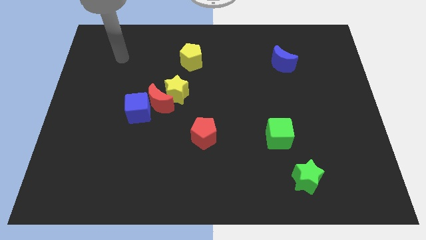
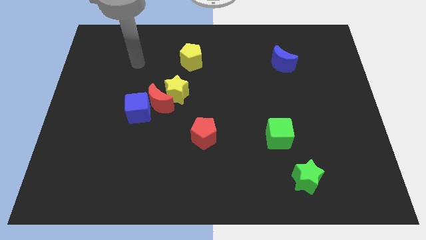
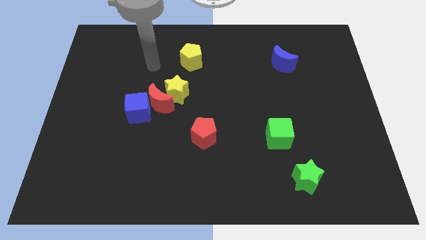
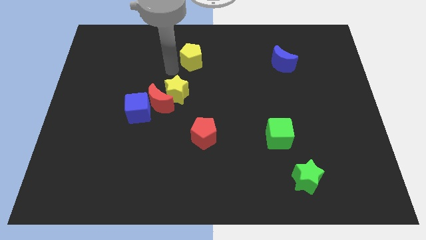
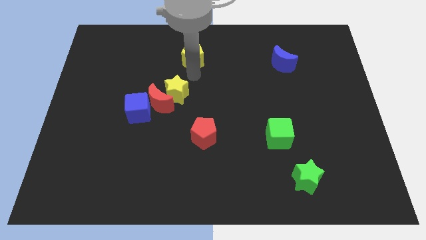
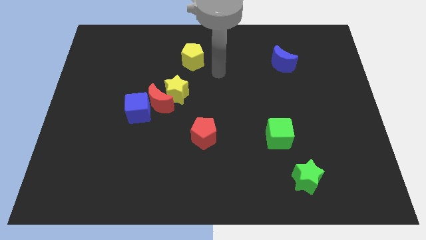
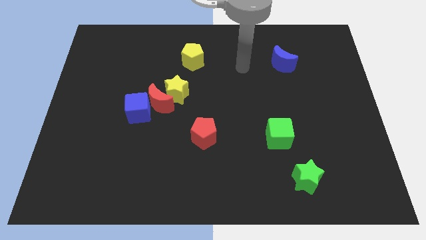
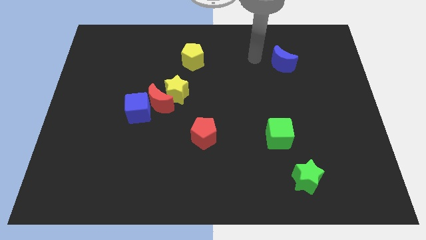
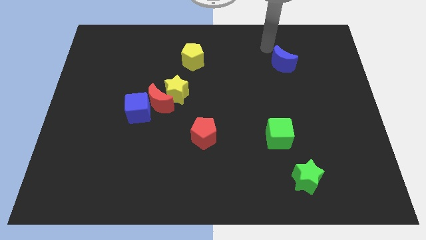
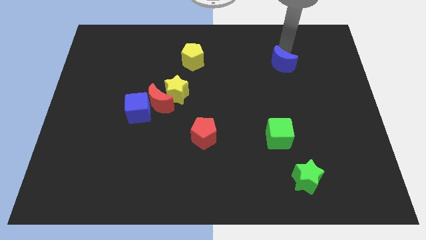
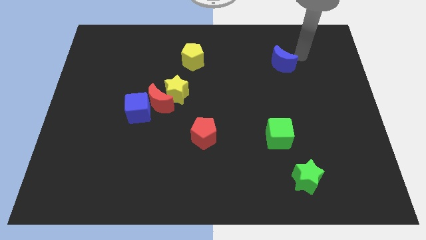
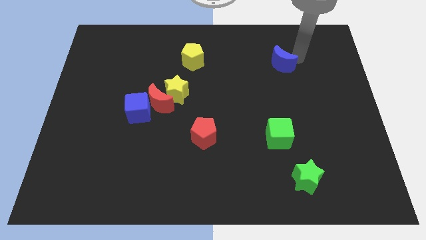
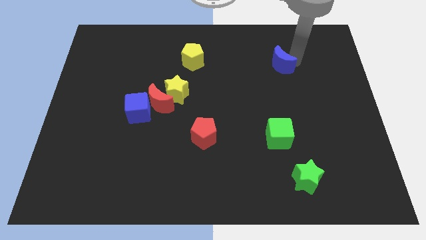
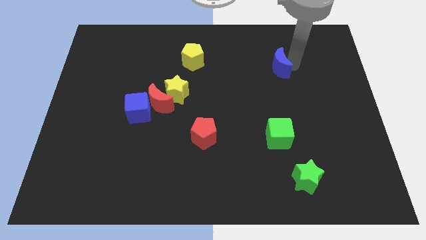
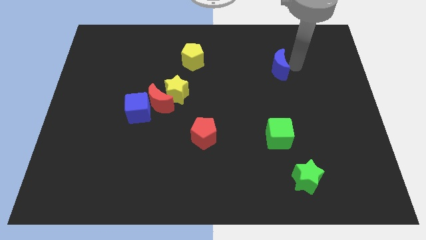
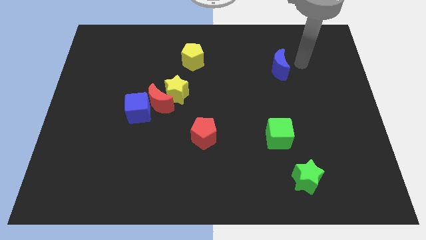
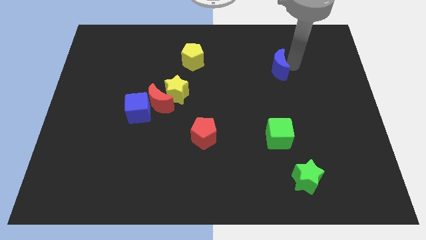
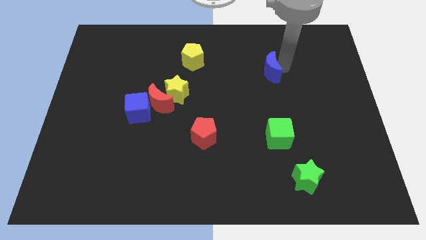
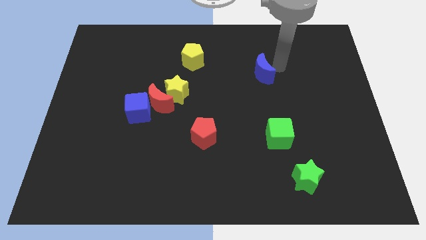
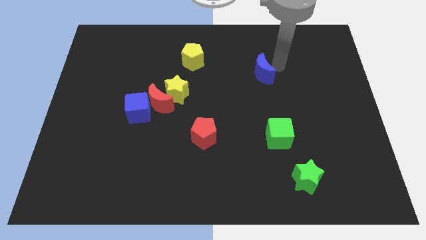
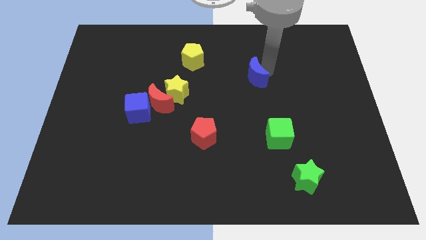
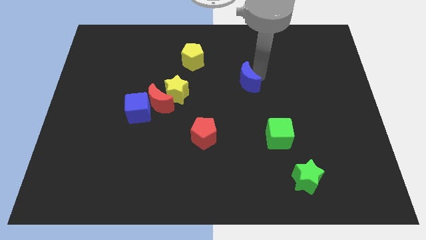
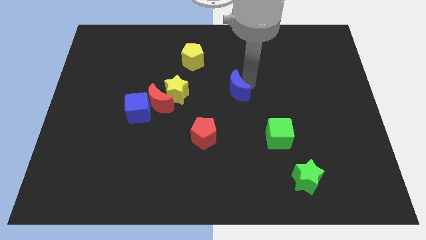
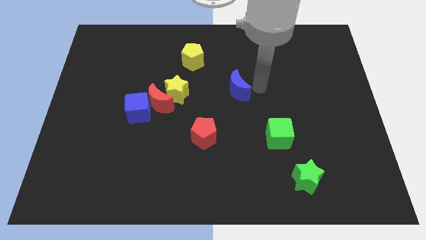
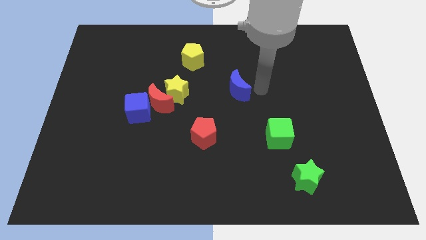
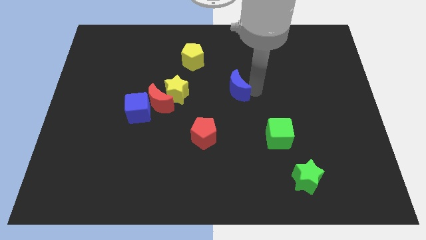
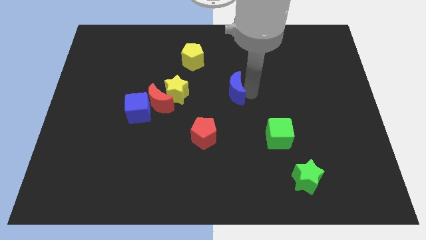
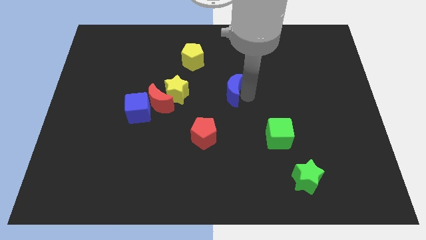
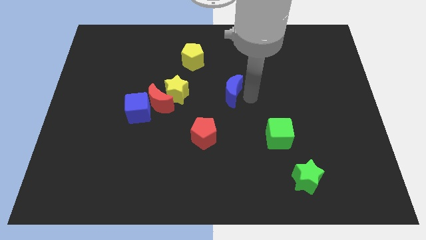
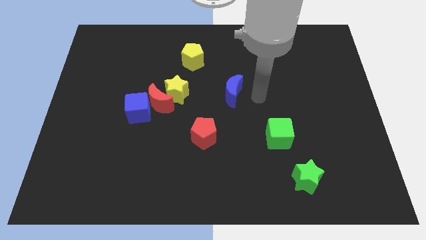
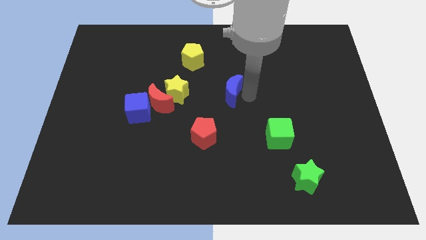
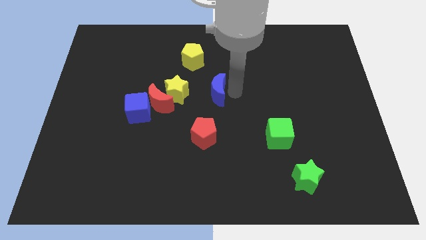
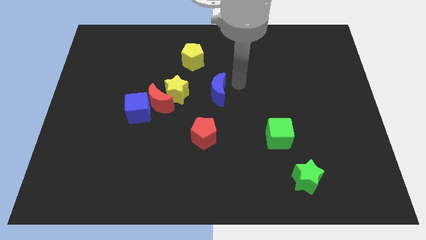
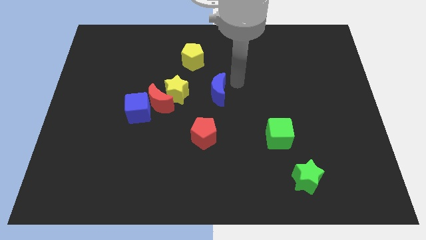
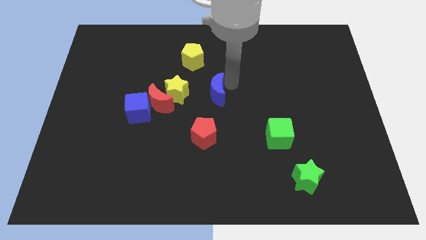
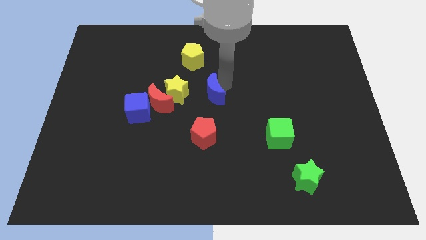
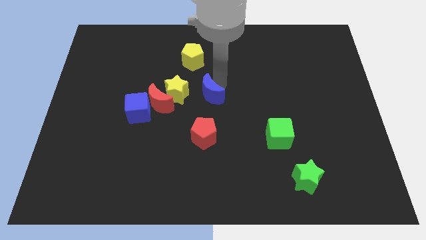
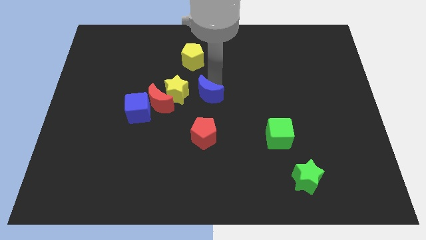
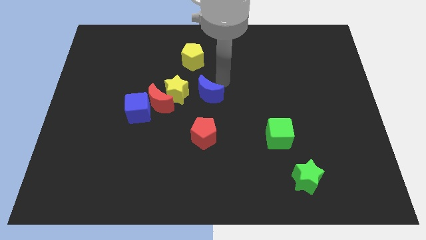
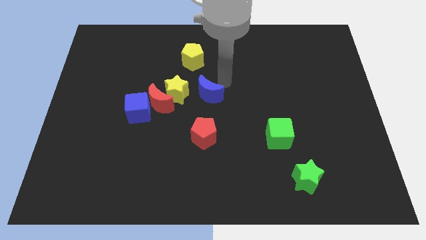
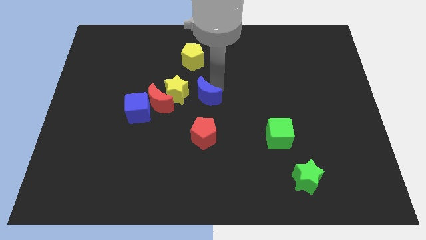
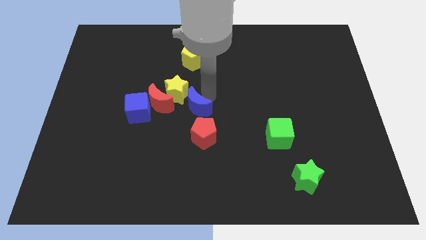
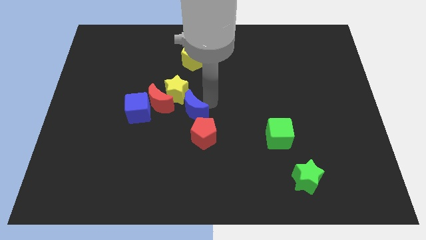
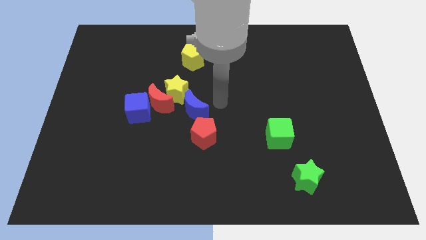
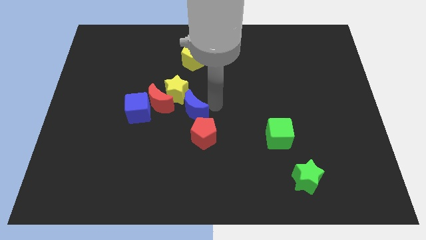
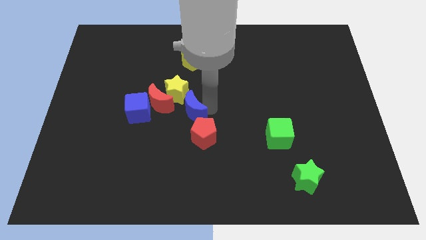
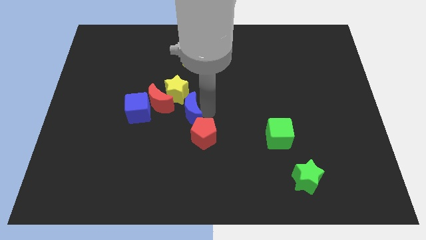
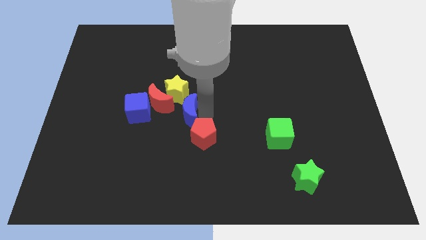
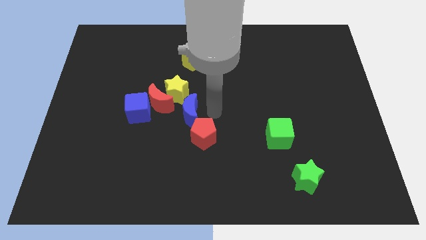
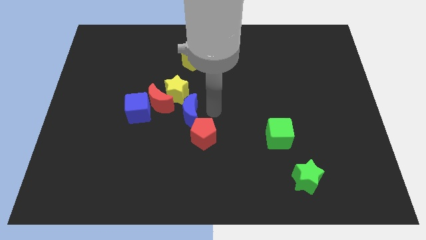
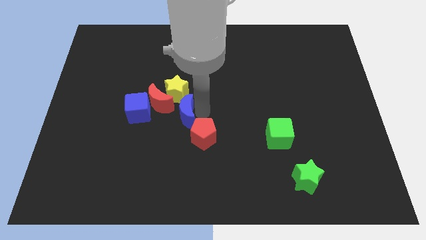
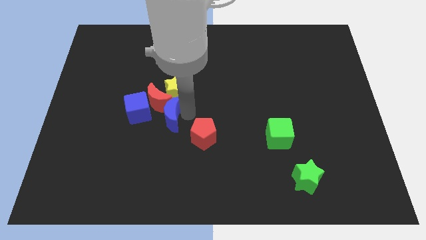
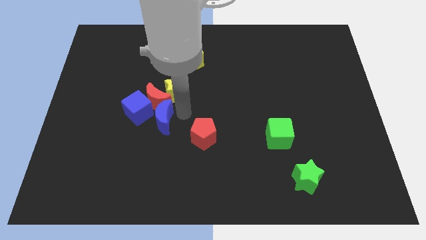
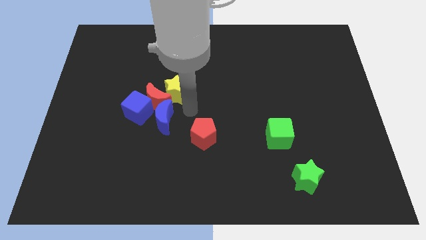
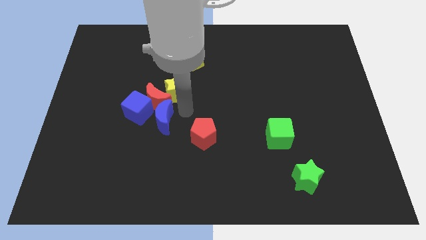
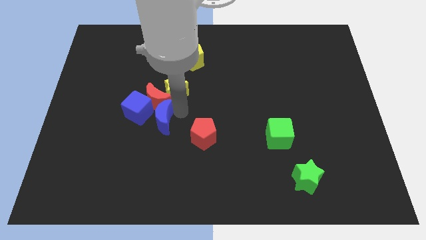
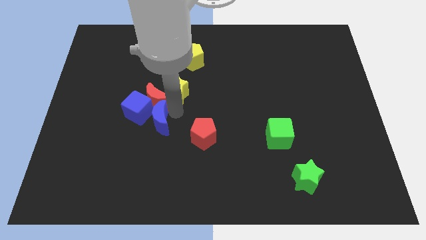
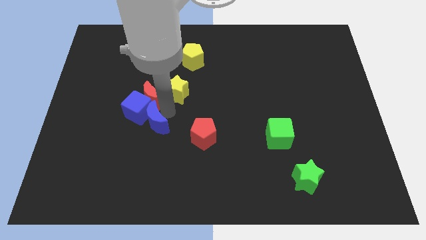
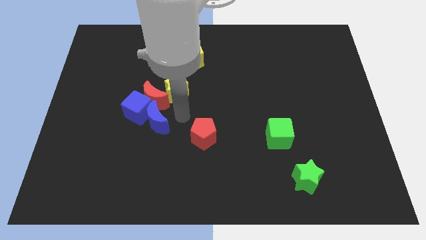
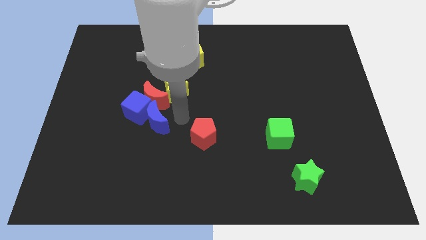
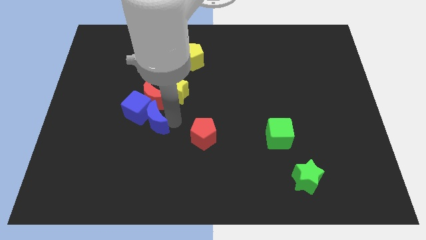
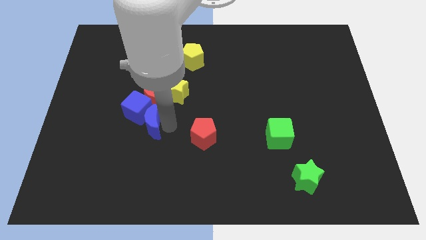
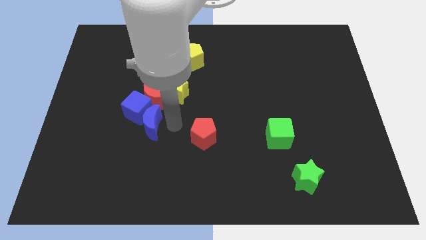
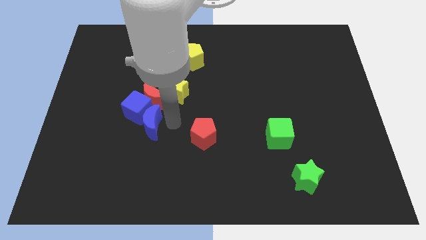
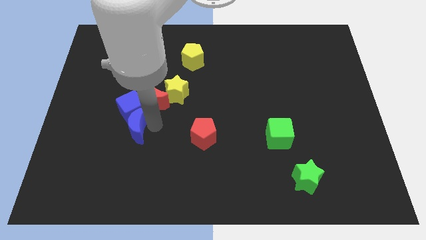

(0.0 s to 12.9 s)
move the blue moon to the bottom left of the blue cube
